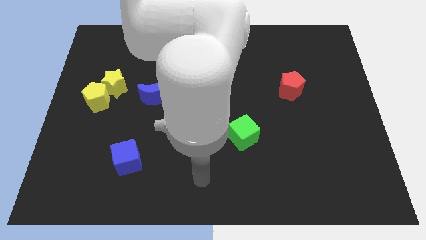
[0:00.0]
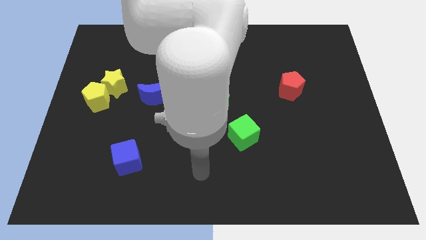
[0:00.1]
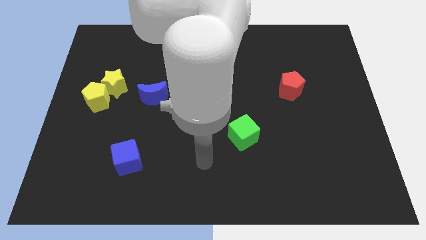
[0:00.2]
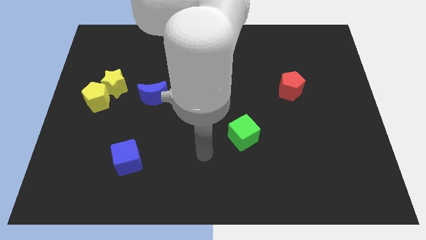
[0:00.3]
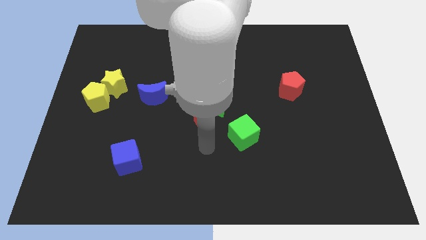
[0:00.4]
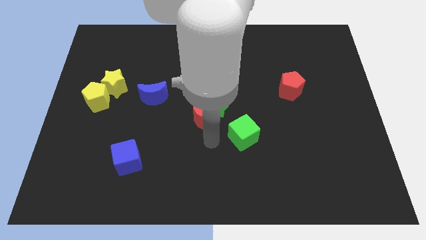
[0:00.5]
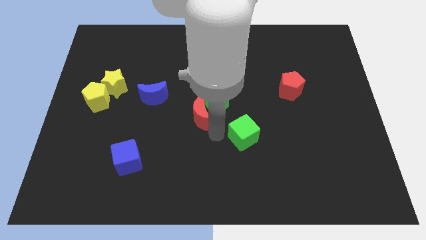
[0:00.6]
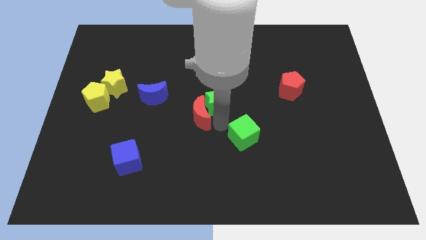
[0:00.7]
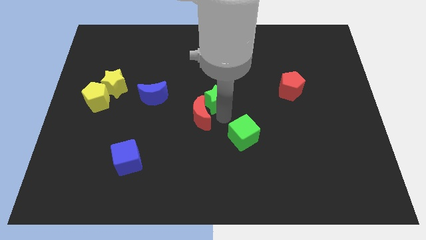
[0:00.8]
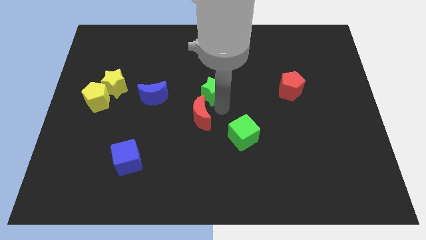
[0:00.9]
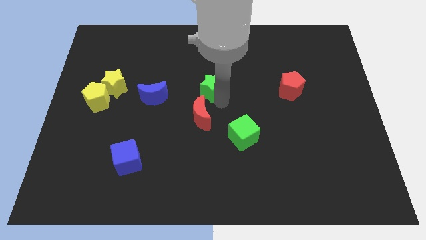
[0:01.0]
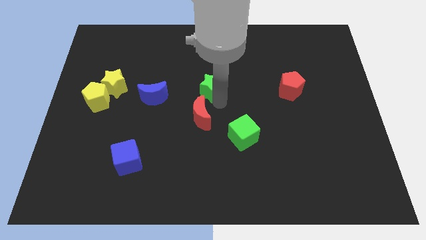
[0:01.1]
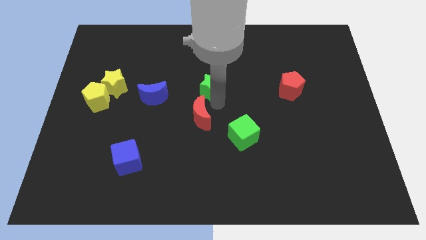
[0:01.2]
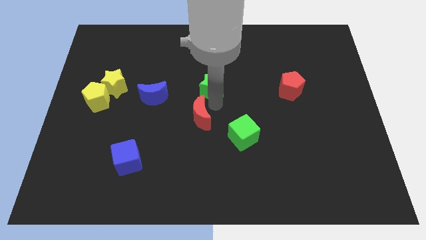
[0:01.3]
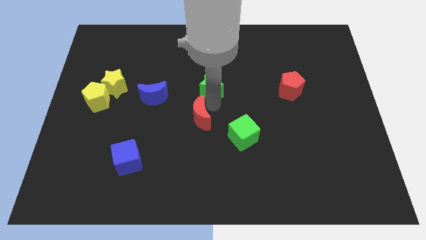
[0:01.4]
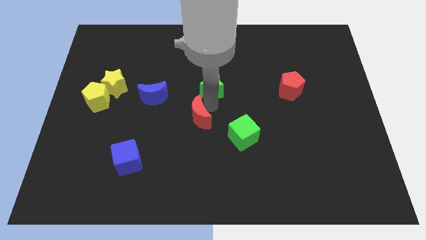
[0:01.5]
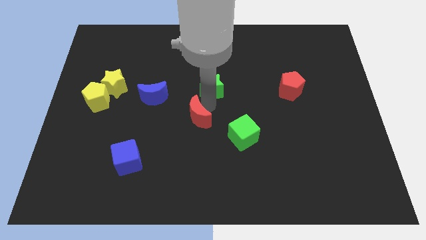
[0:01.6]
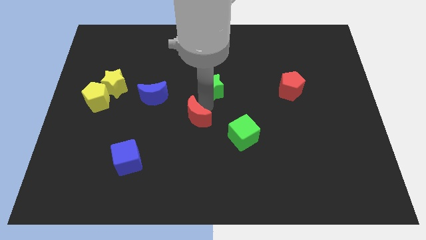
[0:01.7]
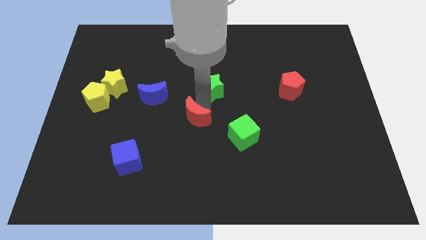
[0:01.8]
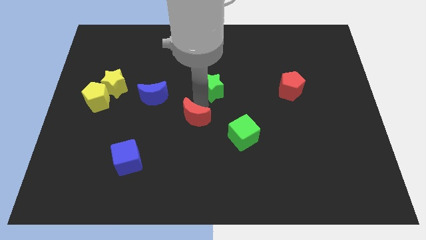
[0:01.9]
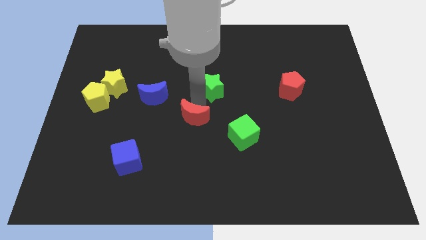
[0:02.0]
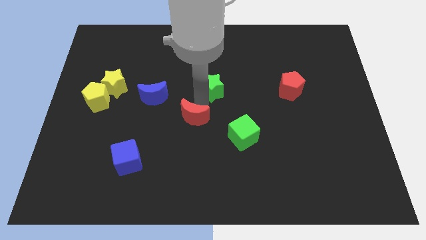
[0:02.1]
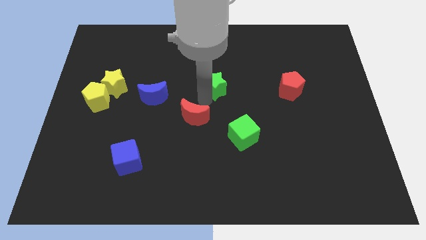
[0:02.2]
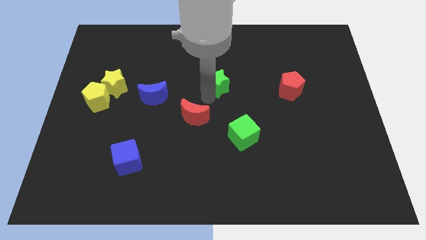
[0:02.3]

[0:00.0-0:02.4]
pull the red moon apart from the green star

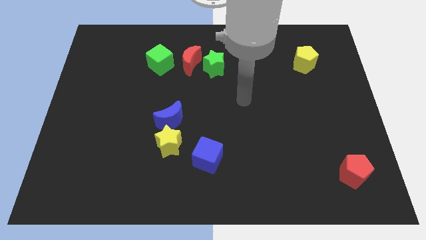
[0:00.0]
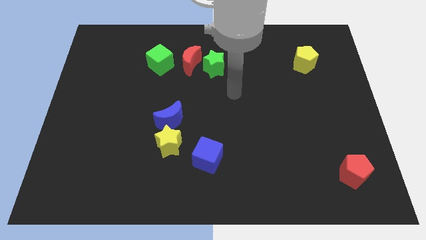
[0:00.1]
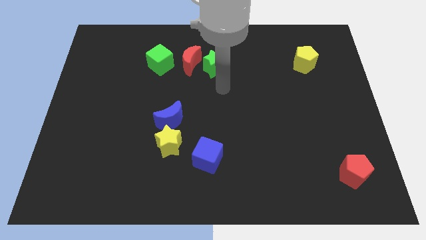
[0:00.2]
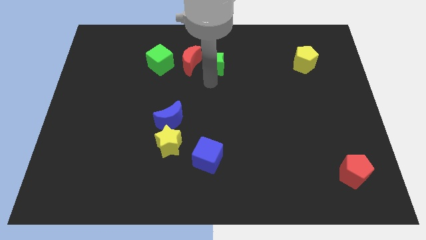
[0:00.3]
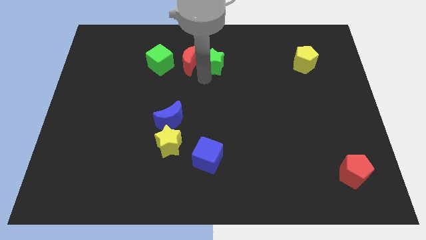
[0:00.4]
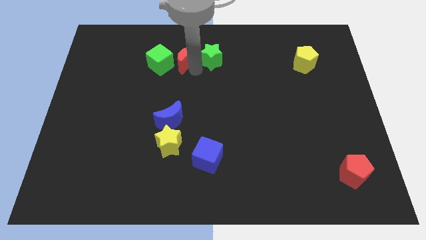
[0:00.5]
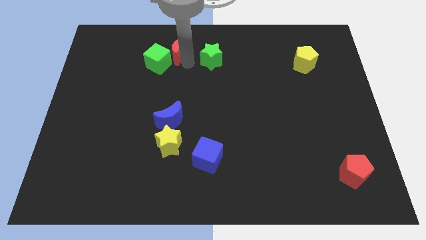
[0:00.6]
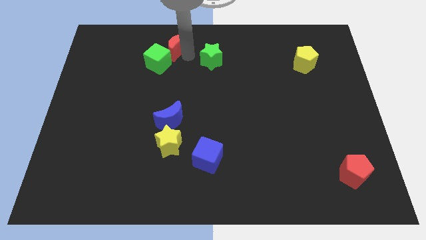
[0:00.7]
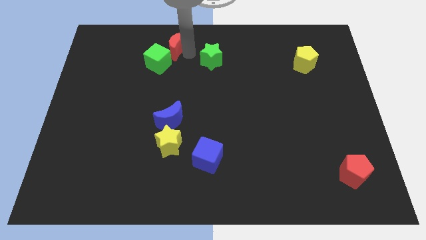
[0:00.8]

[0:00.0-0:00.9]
move the green star away from the red moon

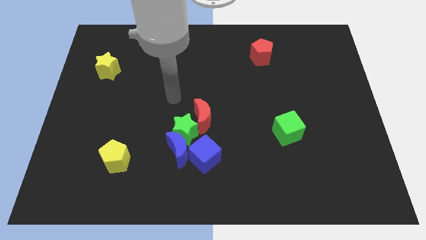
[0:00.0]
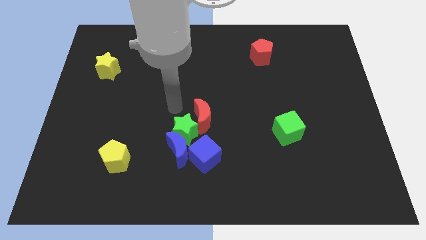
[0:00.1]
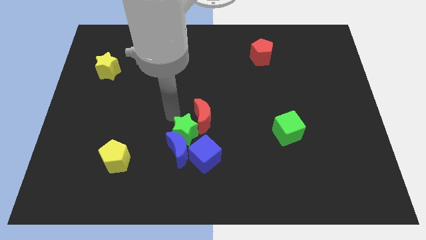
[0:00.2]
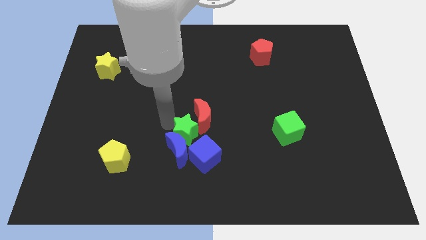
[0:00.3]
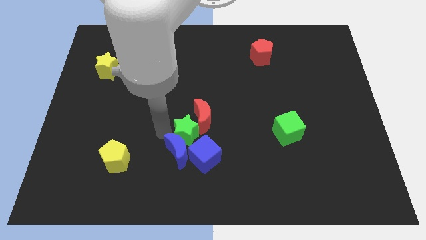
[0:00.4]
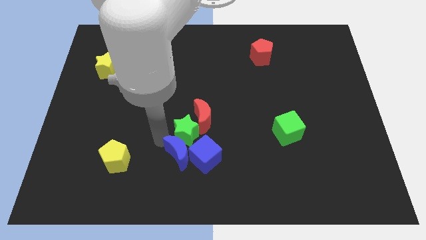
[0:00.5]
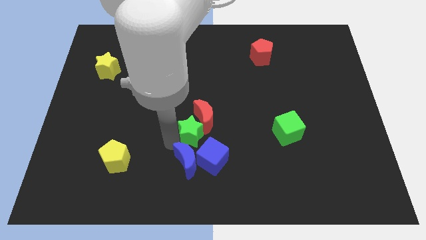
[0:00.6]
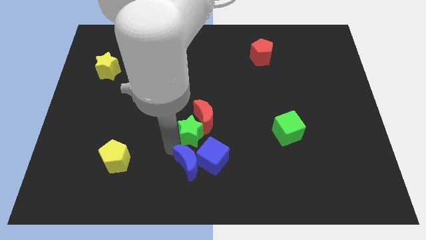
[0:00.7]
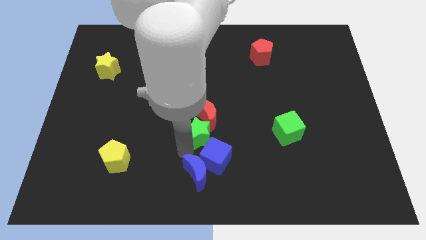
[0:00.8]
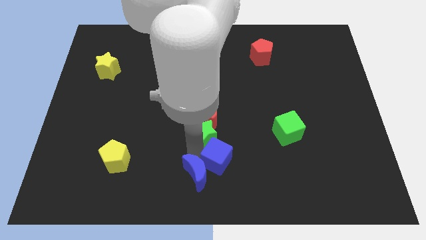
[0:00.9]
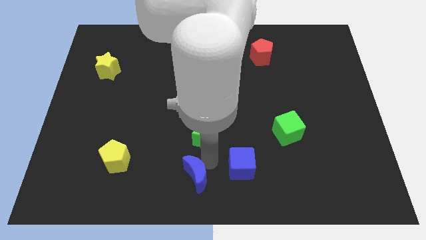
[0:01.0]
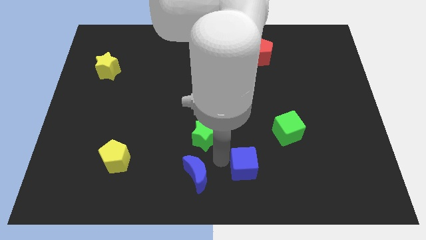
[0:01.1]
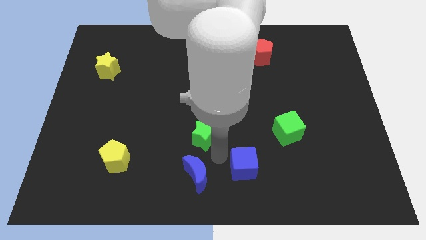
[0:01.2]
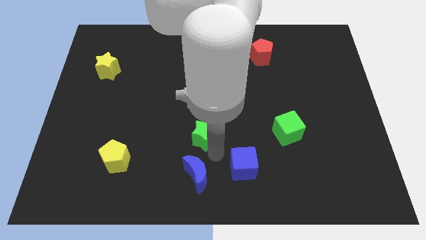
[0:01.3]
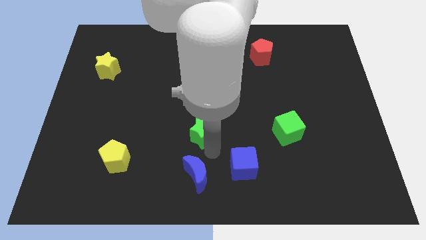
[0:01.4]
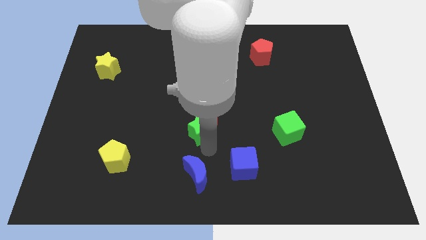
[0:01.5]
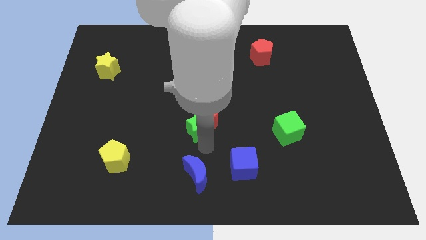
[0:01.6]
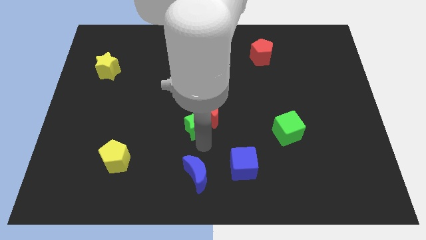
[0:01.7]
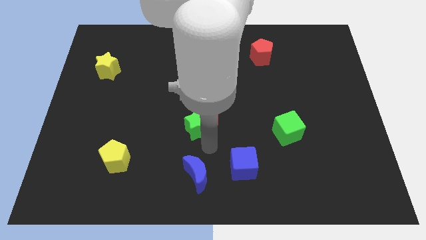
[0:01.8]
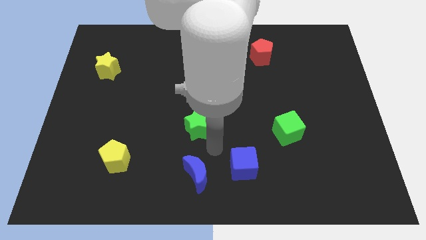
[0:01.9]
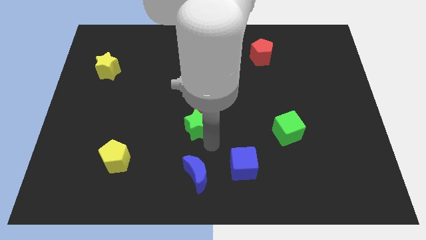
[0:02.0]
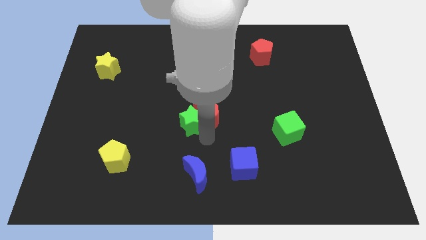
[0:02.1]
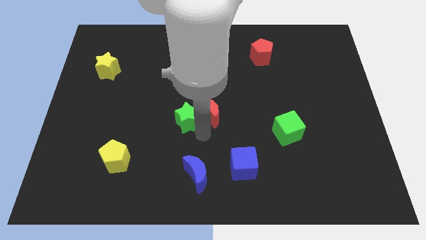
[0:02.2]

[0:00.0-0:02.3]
pull the green star apart from the group

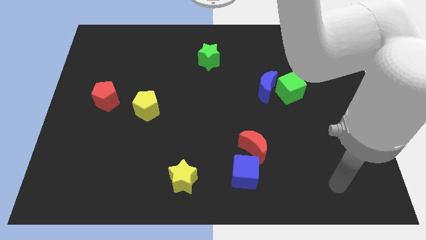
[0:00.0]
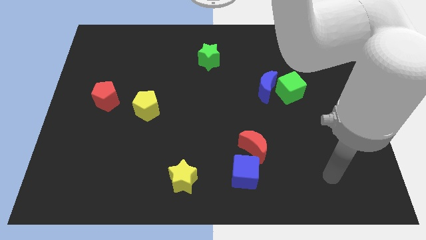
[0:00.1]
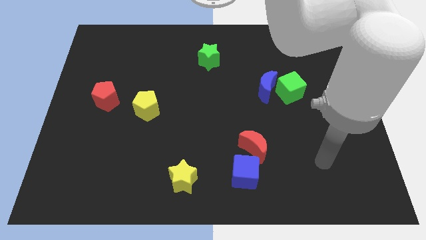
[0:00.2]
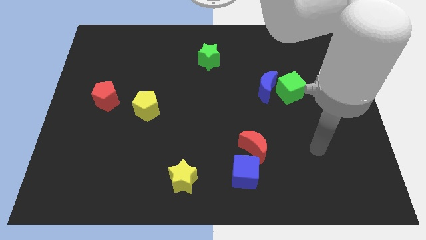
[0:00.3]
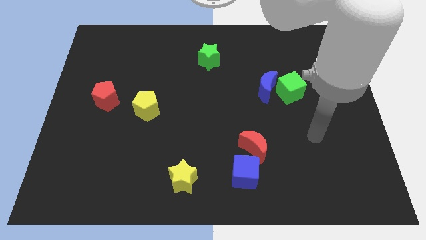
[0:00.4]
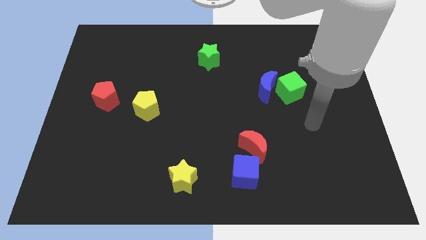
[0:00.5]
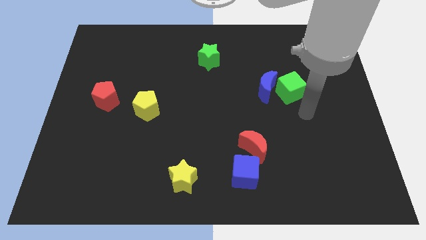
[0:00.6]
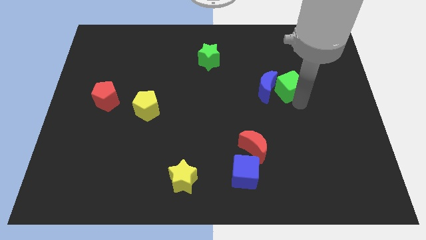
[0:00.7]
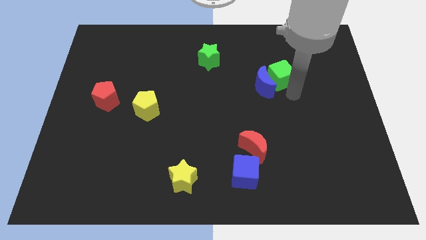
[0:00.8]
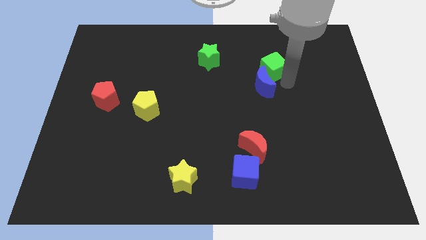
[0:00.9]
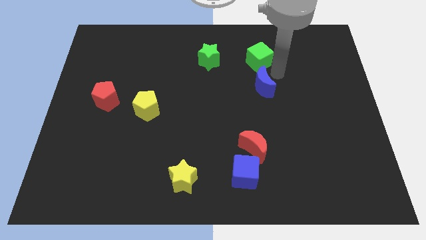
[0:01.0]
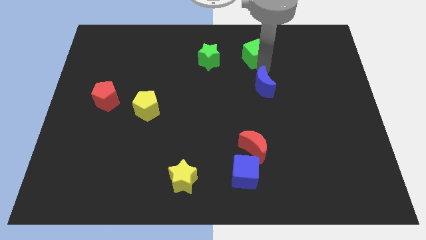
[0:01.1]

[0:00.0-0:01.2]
move the blue moon away from the green cube

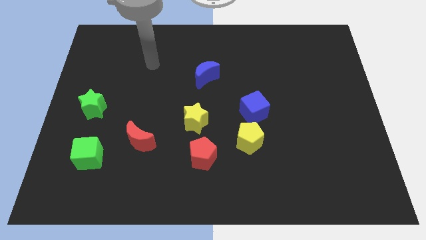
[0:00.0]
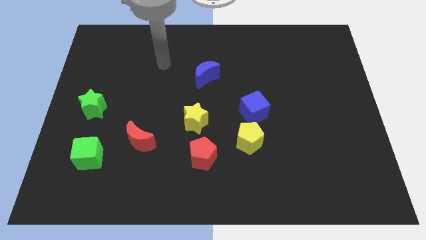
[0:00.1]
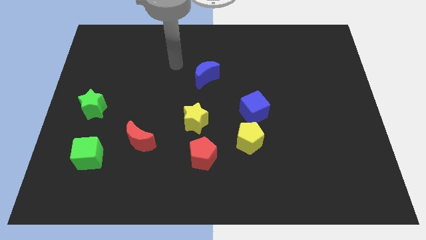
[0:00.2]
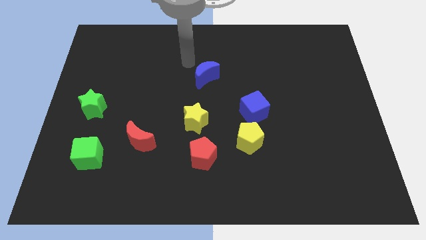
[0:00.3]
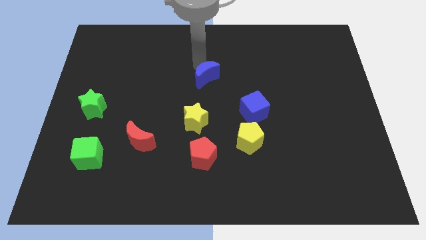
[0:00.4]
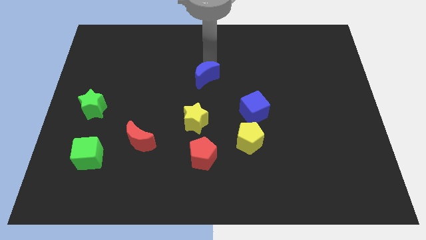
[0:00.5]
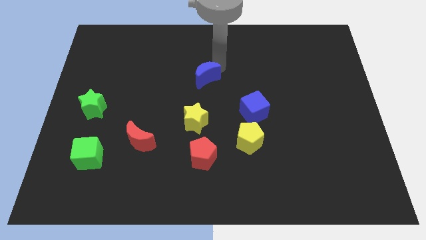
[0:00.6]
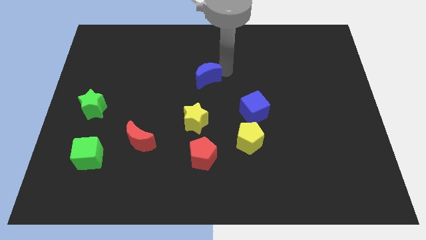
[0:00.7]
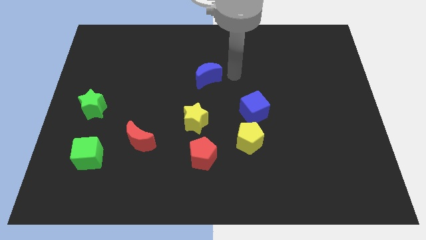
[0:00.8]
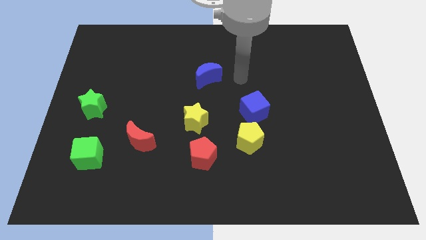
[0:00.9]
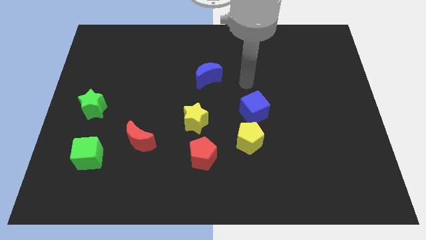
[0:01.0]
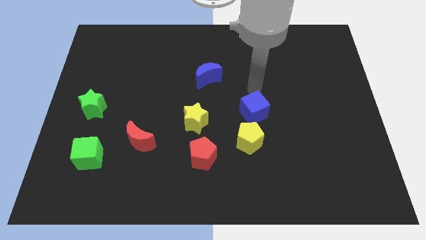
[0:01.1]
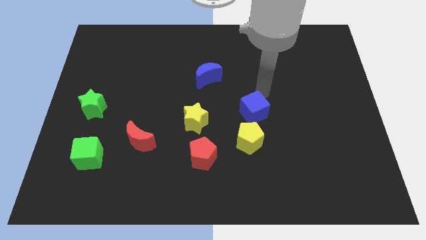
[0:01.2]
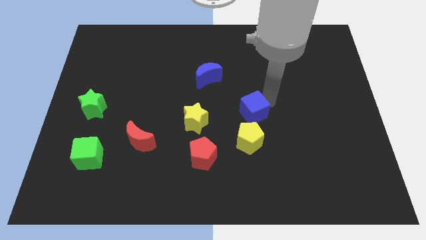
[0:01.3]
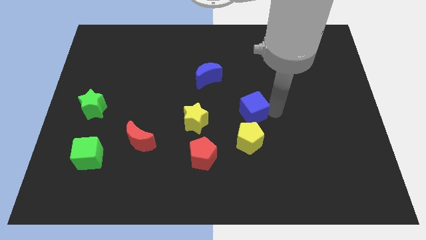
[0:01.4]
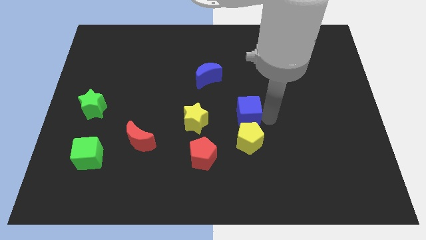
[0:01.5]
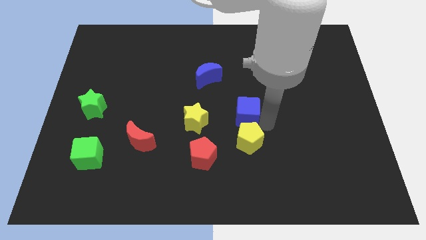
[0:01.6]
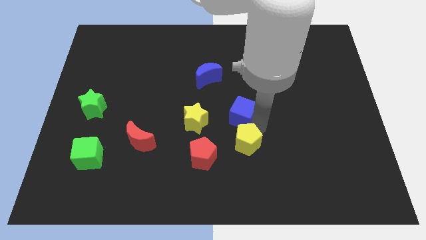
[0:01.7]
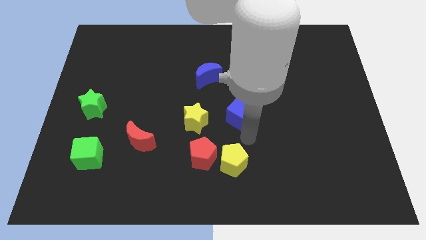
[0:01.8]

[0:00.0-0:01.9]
separate the blue cube from the yellow pentagon

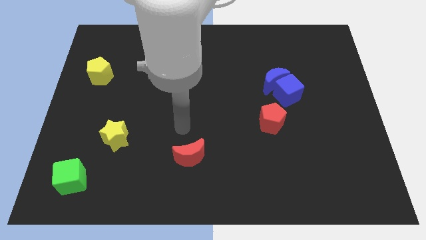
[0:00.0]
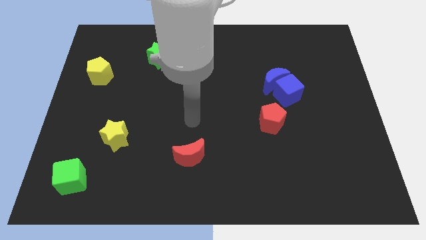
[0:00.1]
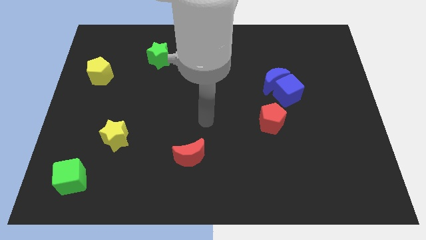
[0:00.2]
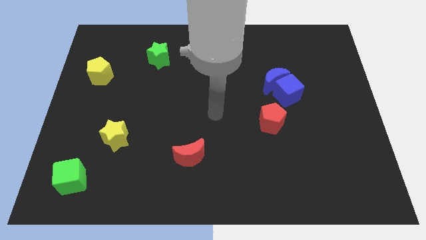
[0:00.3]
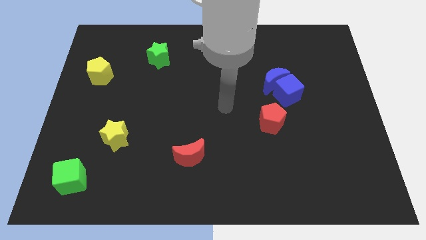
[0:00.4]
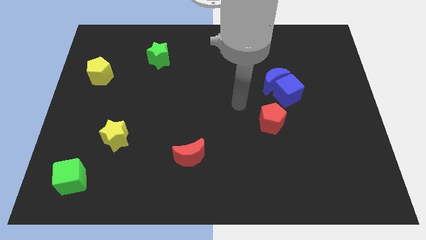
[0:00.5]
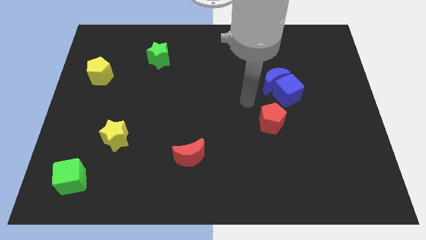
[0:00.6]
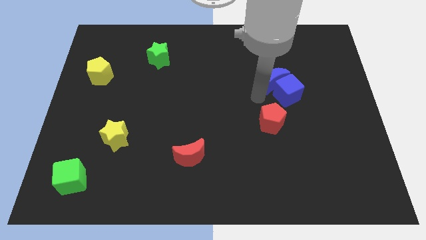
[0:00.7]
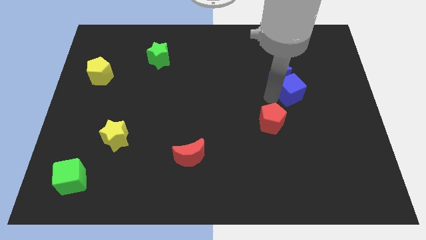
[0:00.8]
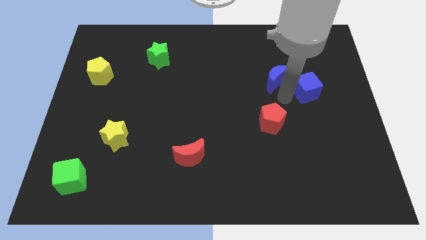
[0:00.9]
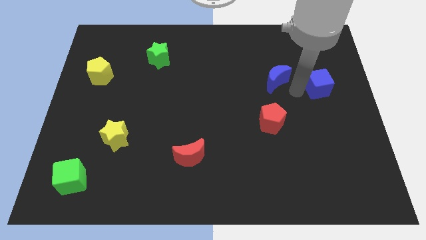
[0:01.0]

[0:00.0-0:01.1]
move the blue moon away from the blue cube
